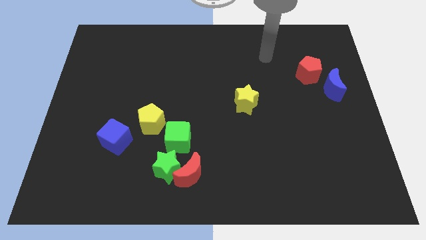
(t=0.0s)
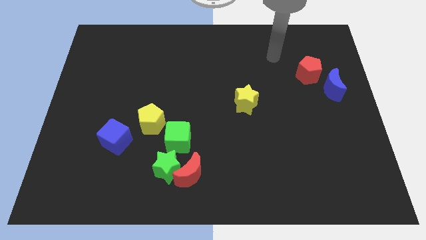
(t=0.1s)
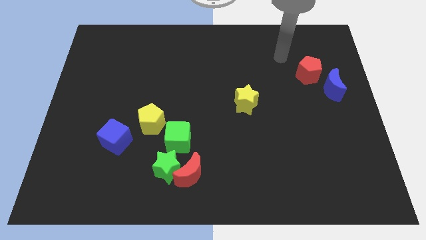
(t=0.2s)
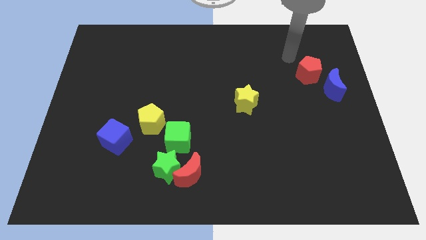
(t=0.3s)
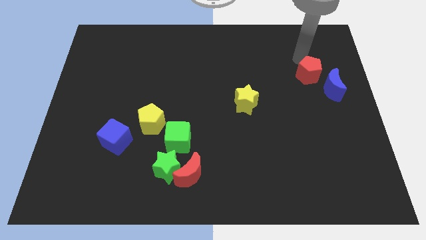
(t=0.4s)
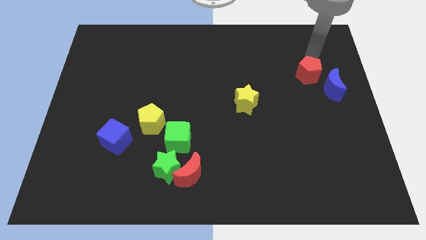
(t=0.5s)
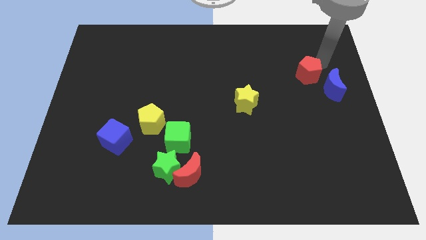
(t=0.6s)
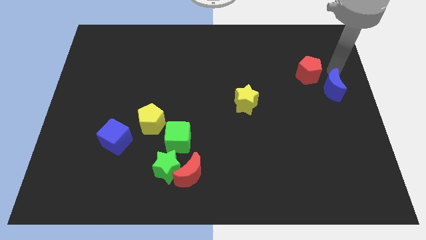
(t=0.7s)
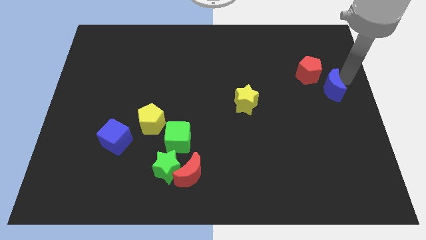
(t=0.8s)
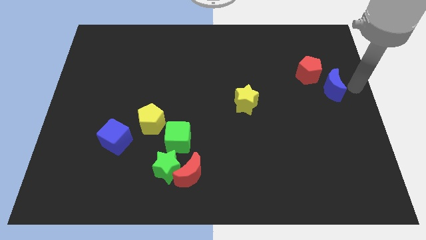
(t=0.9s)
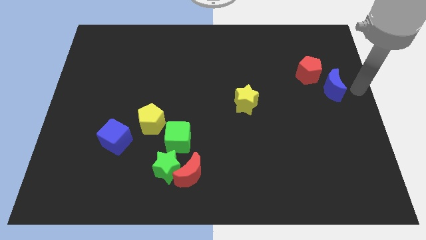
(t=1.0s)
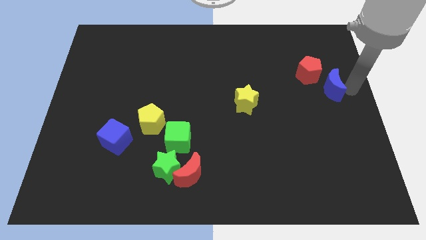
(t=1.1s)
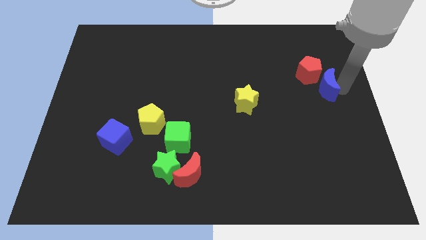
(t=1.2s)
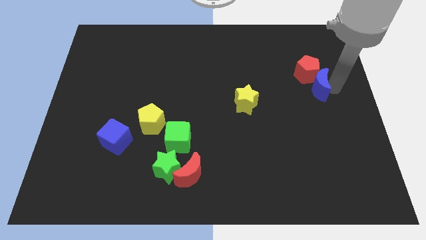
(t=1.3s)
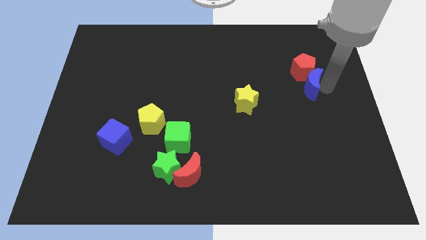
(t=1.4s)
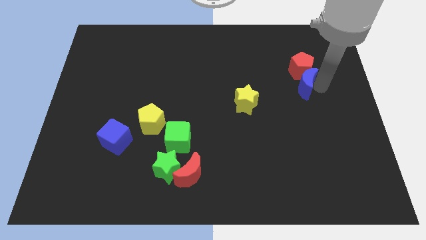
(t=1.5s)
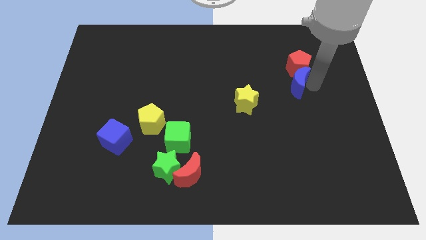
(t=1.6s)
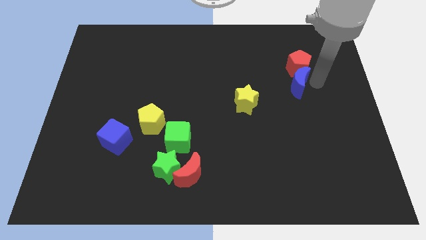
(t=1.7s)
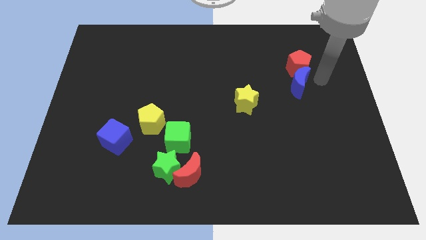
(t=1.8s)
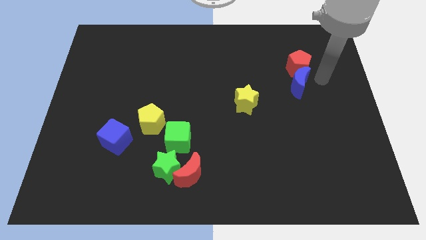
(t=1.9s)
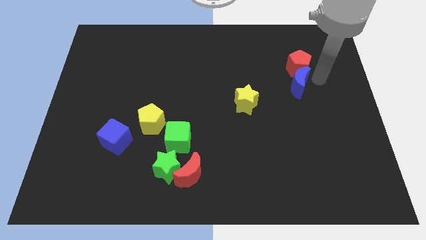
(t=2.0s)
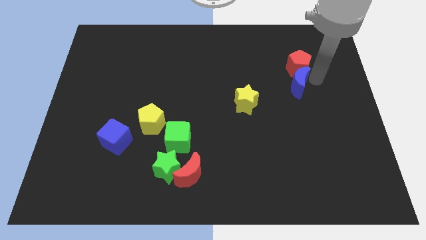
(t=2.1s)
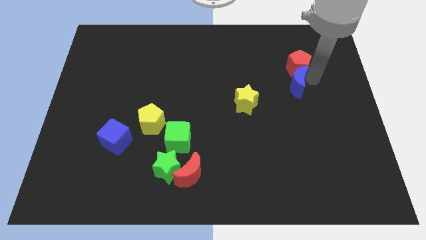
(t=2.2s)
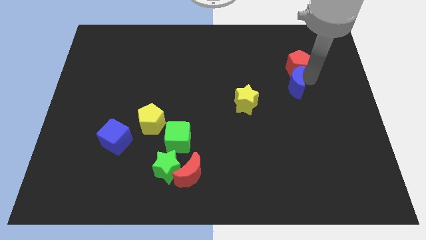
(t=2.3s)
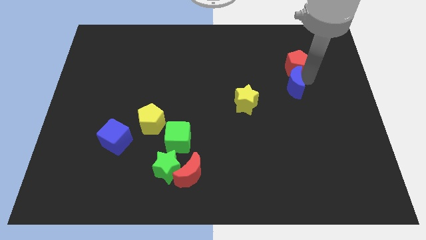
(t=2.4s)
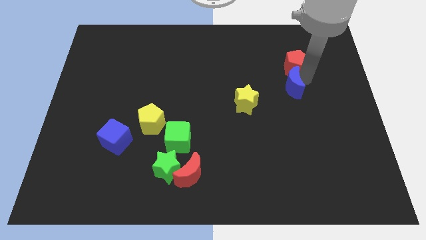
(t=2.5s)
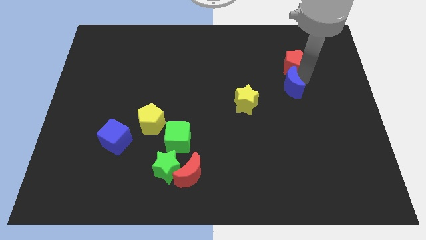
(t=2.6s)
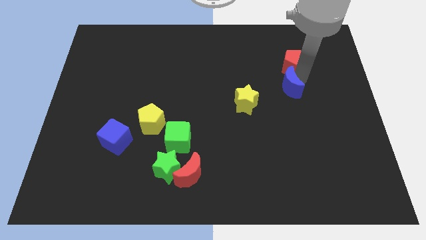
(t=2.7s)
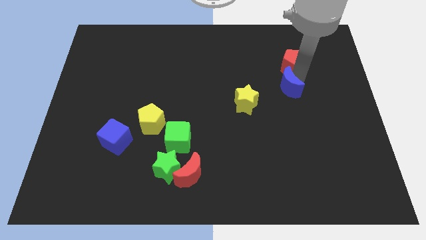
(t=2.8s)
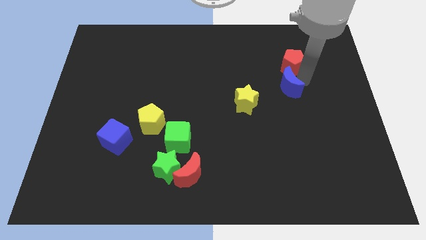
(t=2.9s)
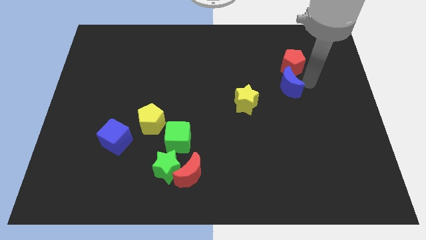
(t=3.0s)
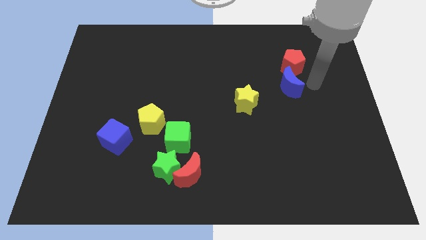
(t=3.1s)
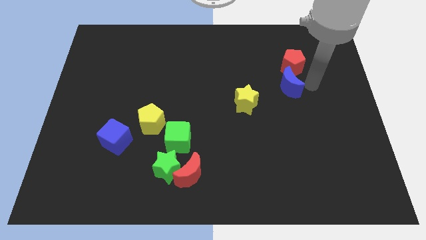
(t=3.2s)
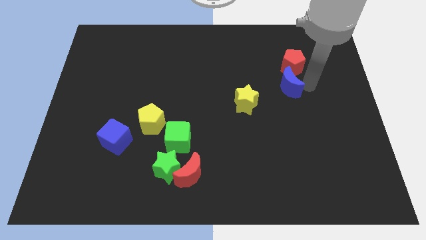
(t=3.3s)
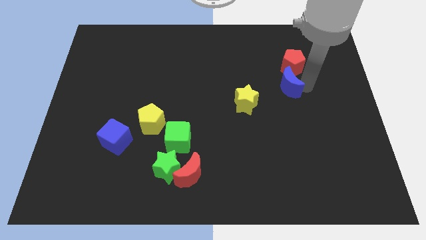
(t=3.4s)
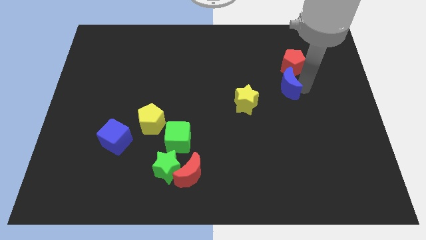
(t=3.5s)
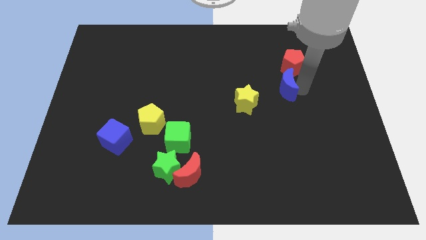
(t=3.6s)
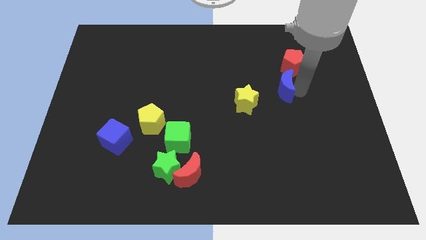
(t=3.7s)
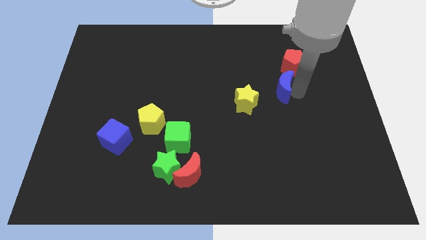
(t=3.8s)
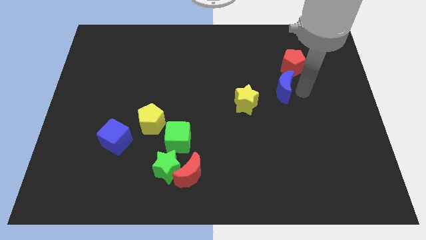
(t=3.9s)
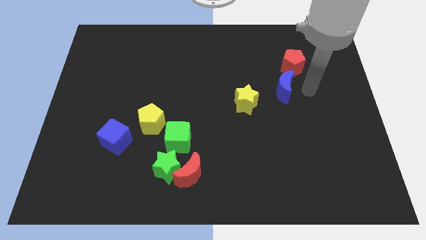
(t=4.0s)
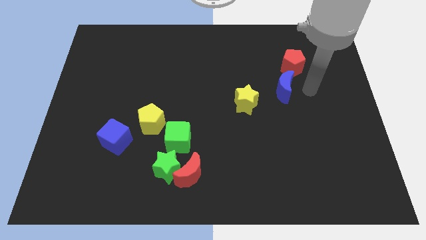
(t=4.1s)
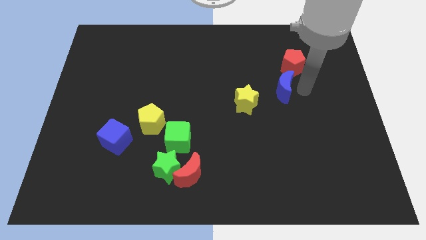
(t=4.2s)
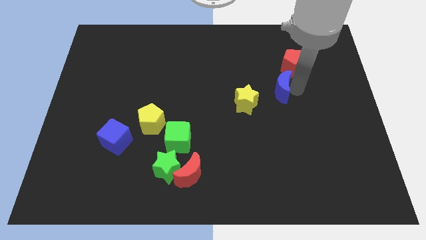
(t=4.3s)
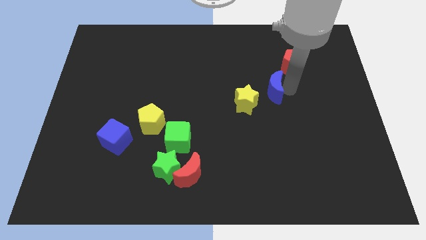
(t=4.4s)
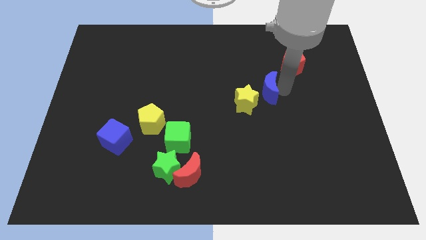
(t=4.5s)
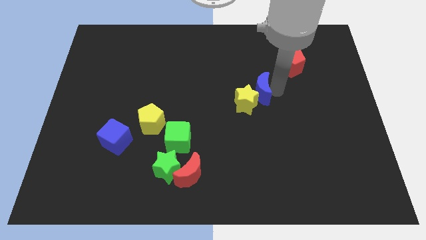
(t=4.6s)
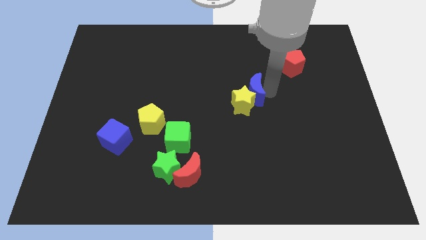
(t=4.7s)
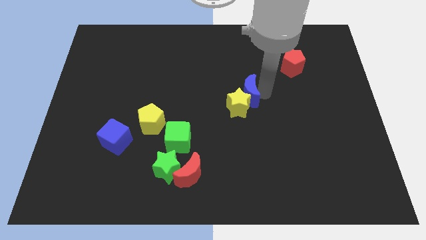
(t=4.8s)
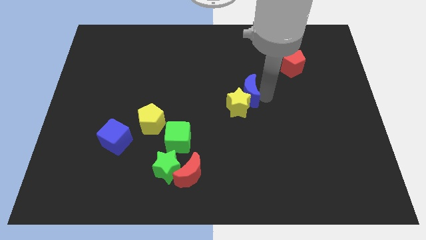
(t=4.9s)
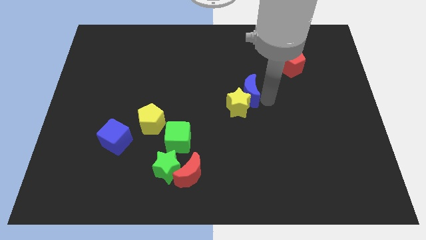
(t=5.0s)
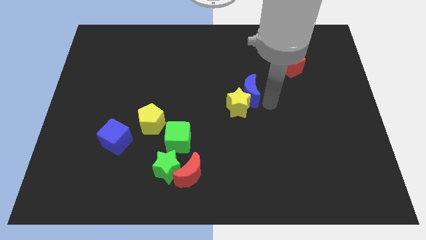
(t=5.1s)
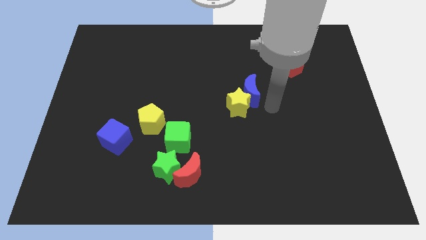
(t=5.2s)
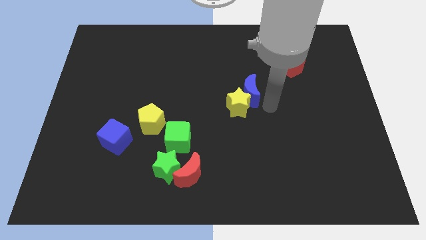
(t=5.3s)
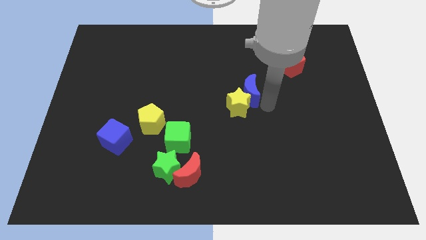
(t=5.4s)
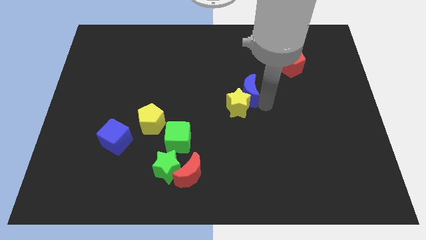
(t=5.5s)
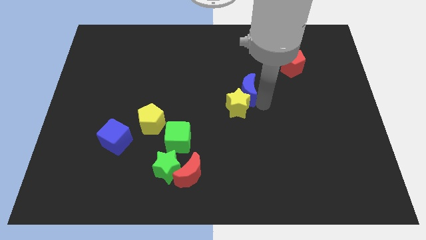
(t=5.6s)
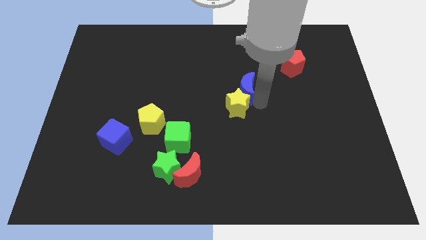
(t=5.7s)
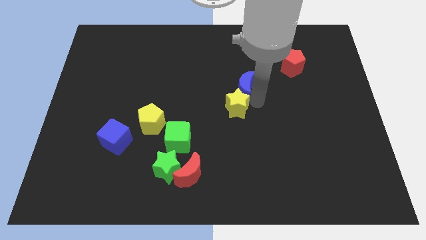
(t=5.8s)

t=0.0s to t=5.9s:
slide the blue moon to the top left side of the yellow star
